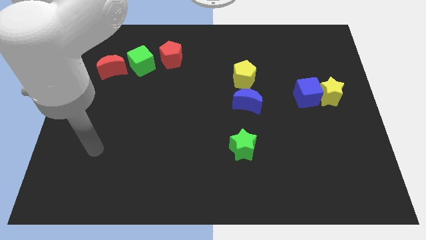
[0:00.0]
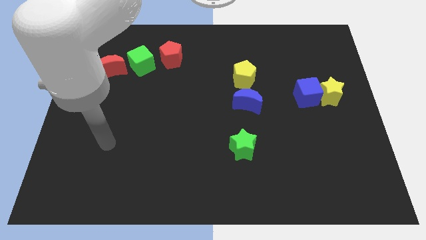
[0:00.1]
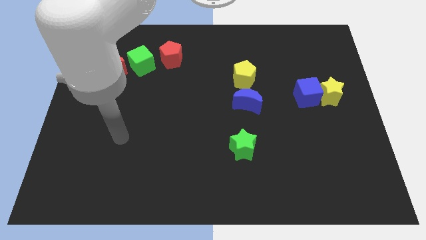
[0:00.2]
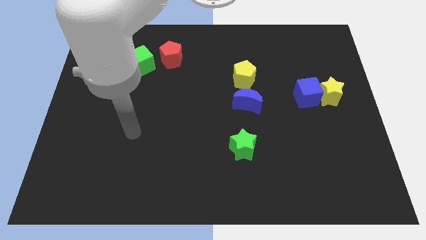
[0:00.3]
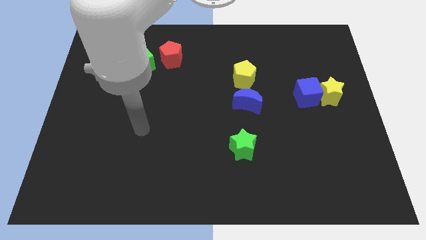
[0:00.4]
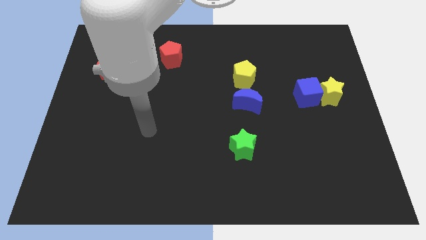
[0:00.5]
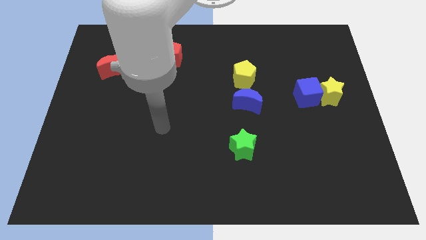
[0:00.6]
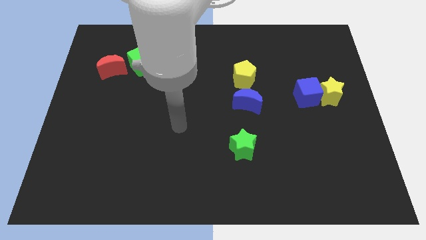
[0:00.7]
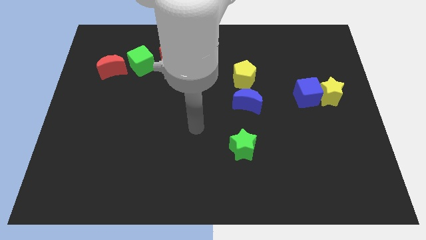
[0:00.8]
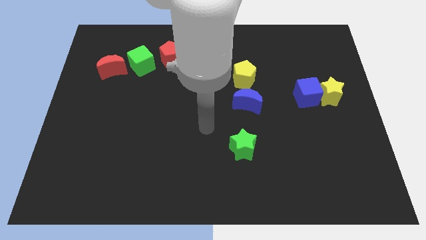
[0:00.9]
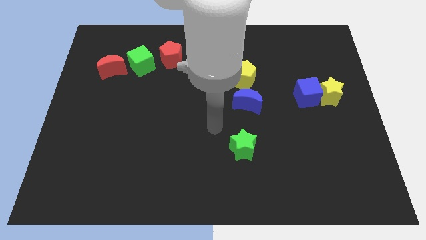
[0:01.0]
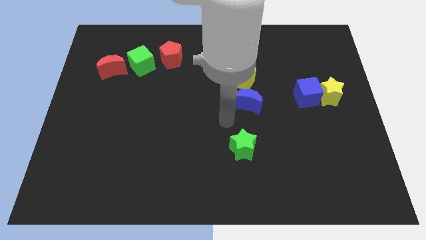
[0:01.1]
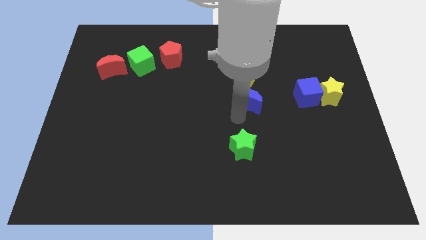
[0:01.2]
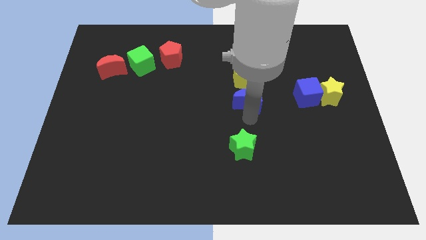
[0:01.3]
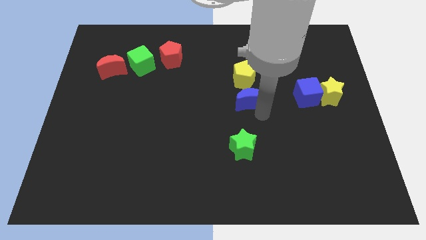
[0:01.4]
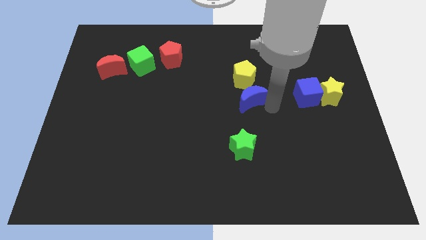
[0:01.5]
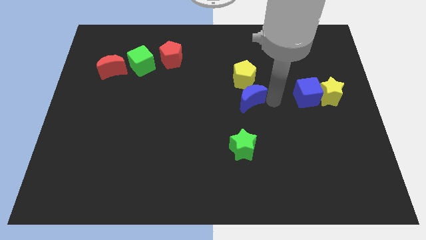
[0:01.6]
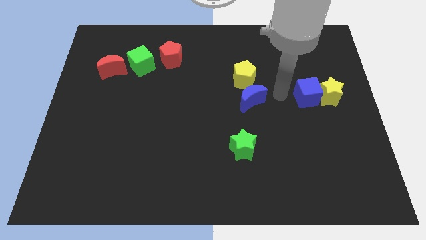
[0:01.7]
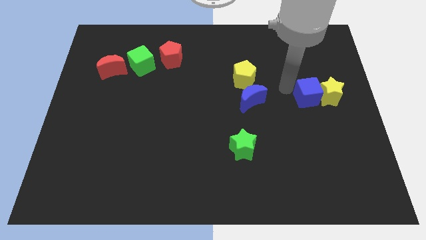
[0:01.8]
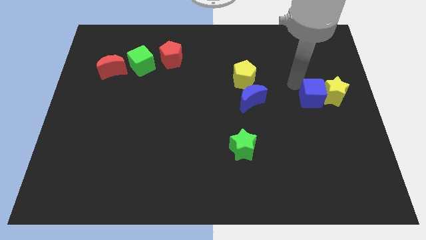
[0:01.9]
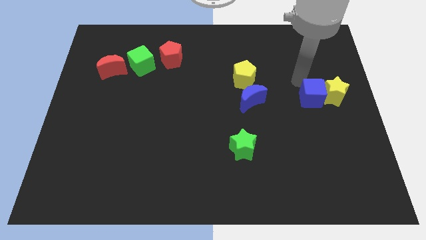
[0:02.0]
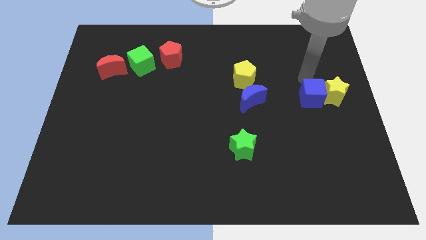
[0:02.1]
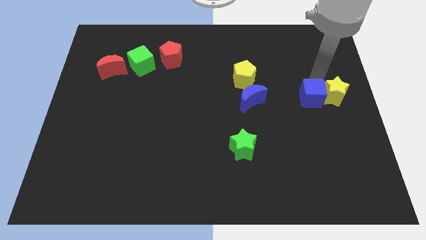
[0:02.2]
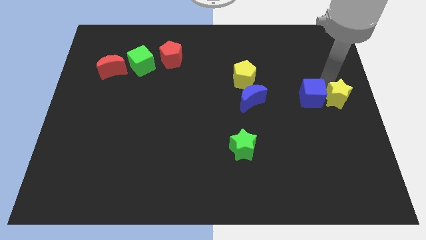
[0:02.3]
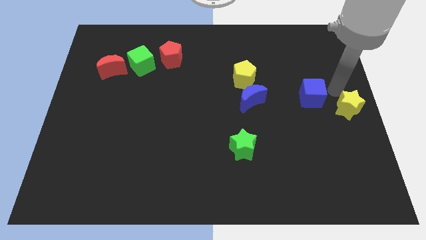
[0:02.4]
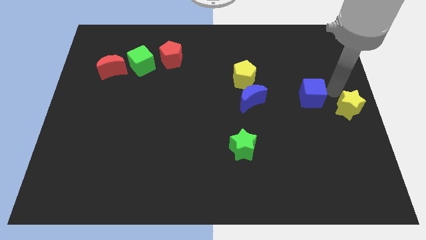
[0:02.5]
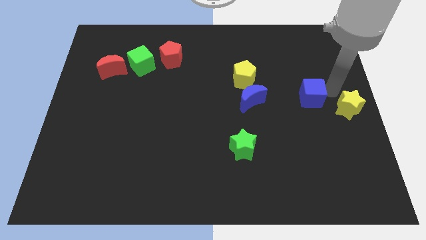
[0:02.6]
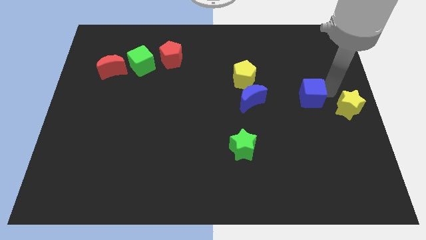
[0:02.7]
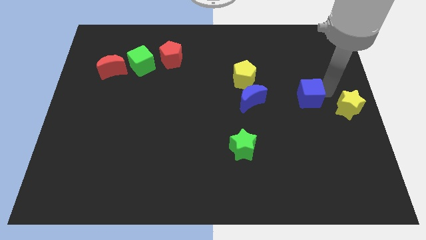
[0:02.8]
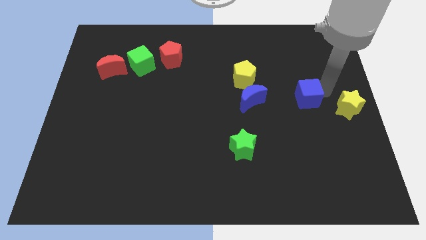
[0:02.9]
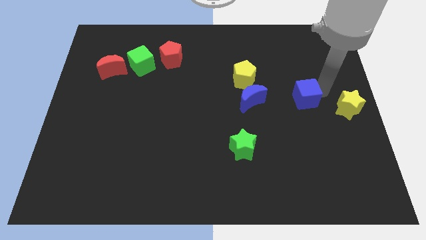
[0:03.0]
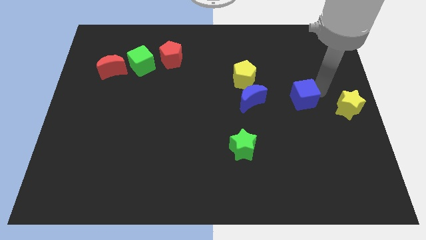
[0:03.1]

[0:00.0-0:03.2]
move the blue cube away from the yellow star

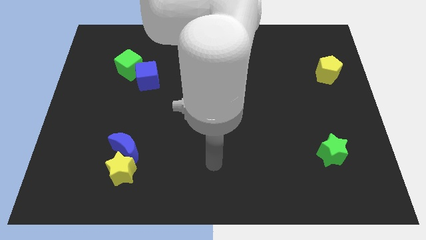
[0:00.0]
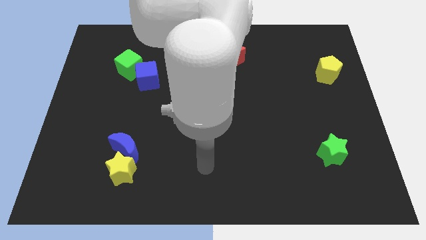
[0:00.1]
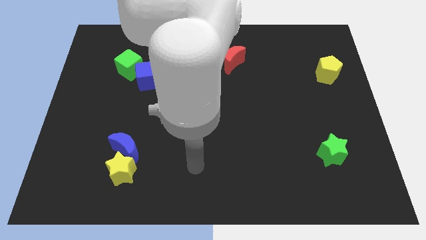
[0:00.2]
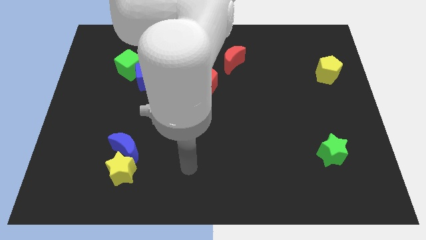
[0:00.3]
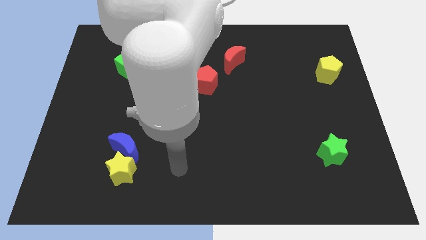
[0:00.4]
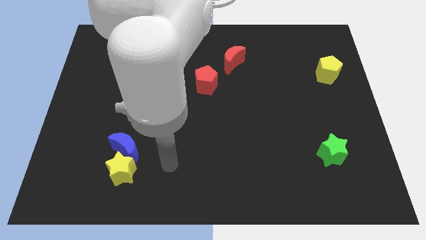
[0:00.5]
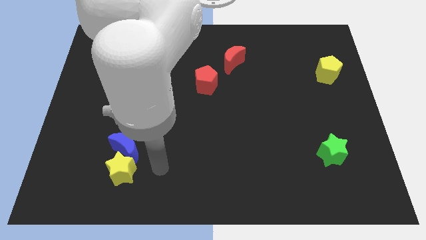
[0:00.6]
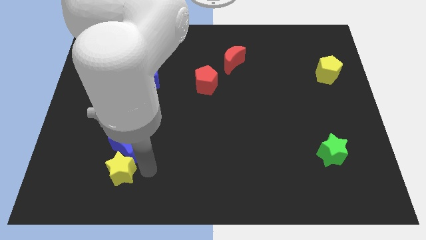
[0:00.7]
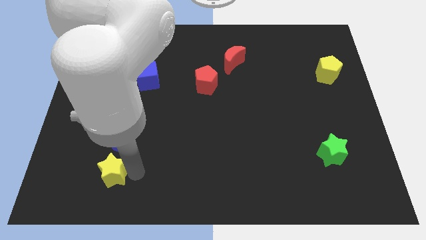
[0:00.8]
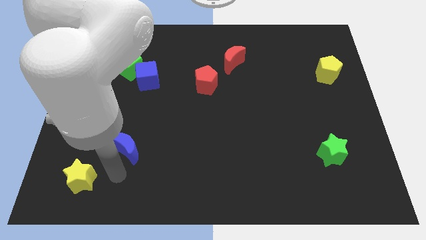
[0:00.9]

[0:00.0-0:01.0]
move the blue moon away from the yellow star

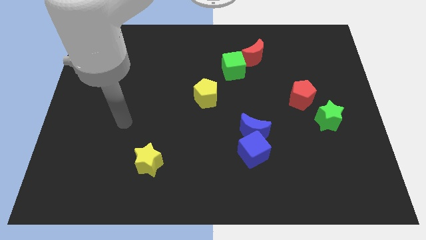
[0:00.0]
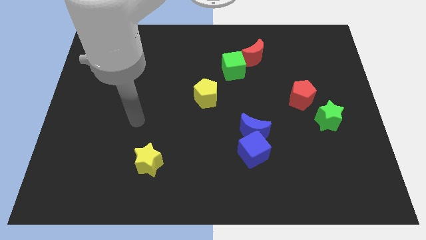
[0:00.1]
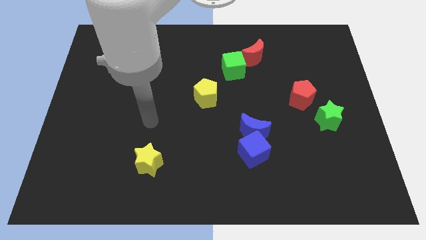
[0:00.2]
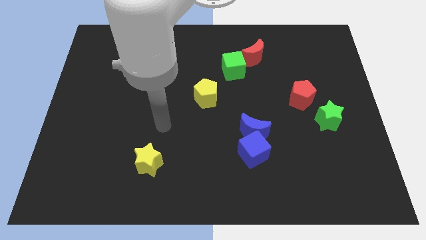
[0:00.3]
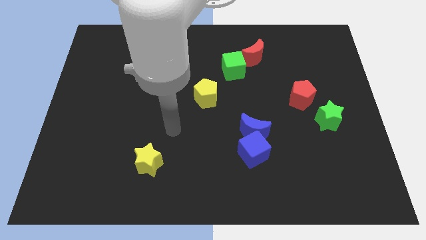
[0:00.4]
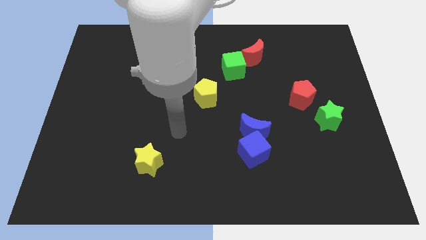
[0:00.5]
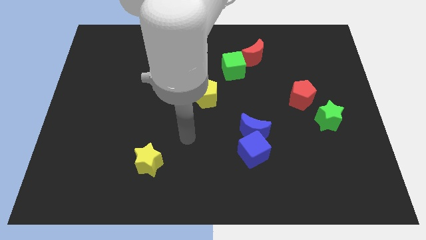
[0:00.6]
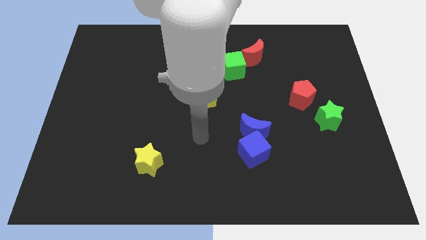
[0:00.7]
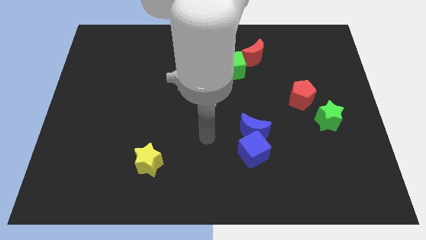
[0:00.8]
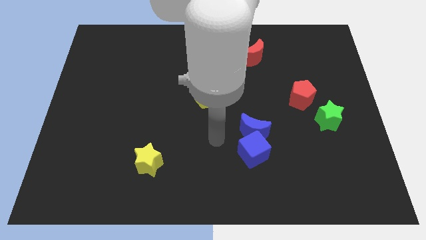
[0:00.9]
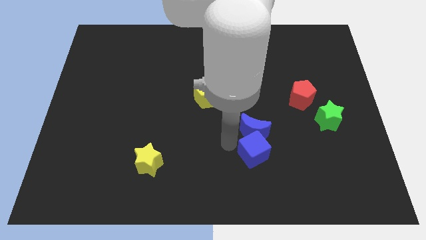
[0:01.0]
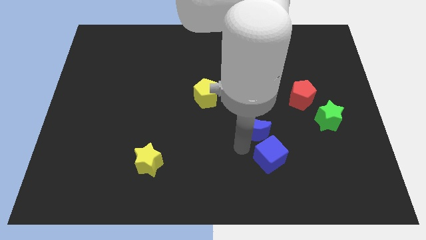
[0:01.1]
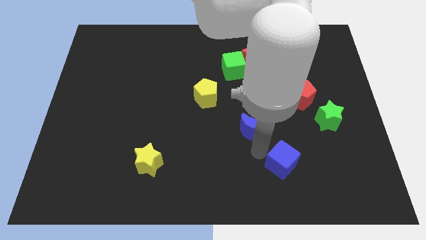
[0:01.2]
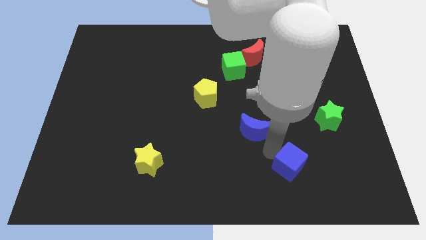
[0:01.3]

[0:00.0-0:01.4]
pull the blue moon apart from the blue cube

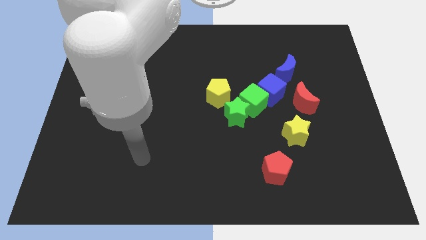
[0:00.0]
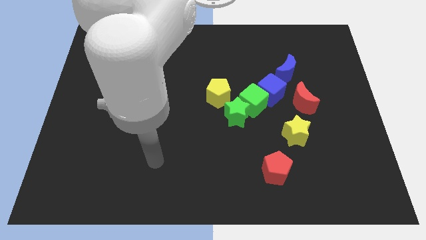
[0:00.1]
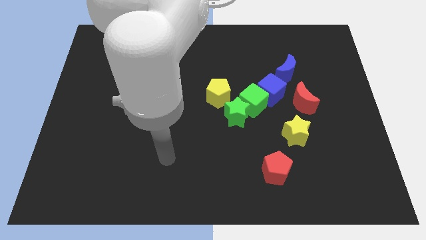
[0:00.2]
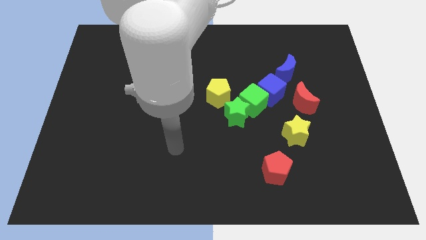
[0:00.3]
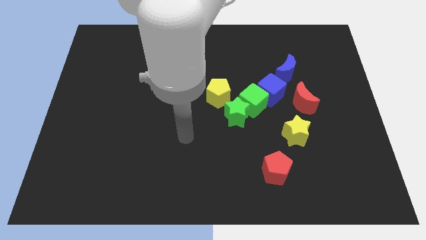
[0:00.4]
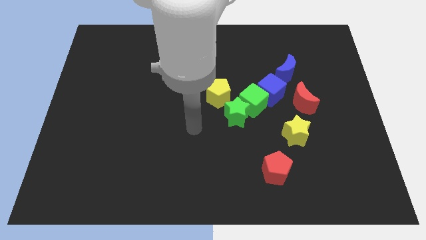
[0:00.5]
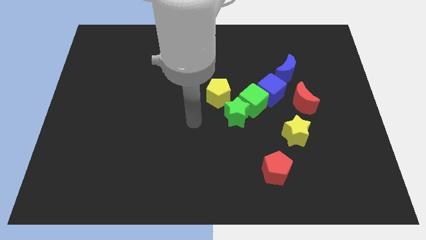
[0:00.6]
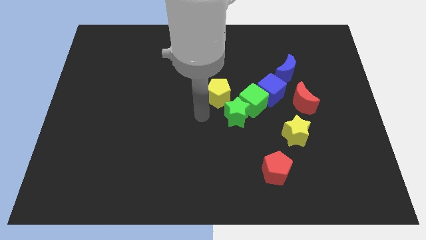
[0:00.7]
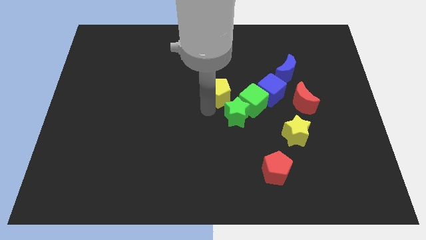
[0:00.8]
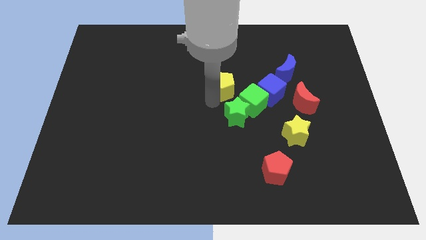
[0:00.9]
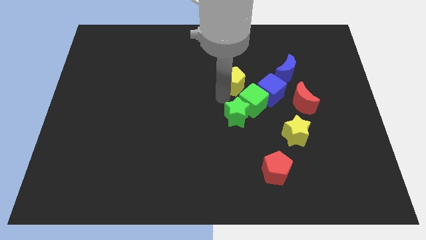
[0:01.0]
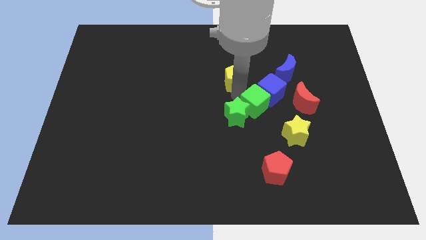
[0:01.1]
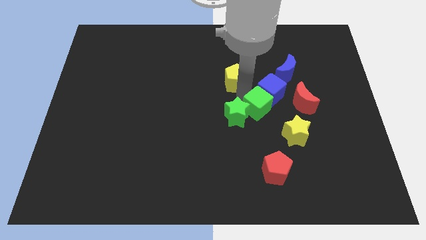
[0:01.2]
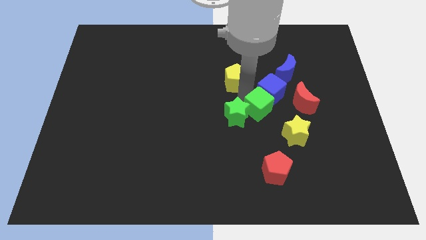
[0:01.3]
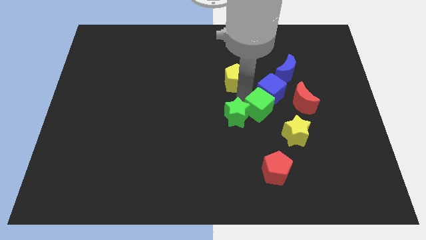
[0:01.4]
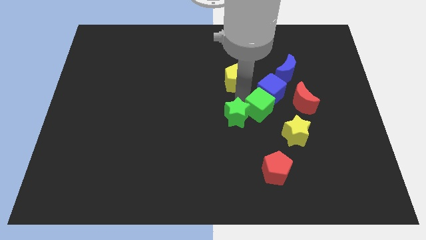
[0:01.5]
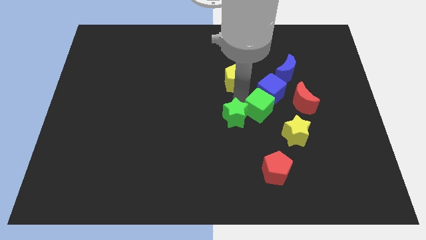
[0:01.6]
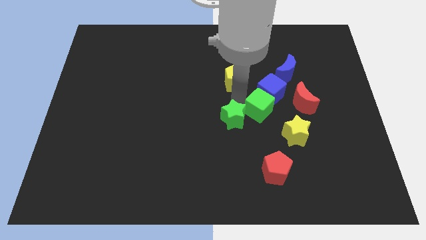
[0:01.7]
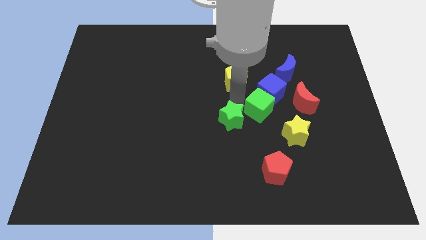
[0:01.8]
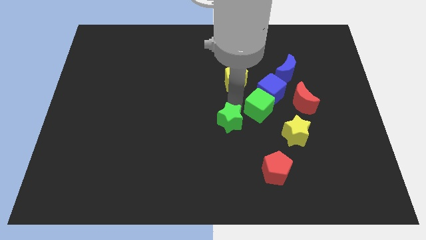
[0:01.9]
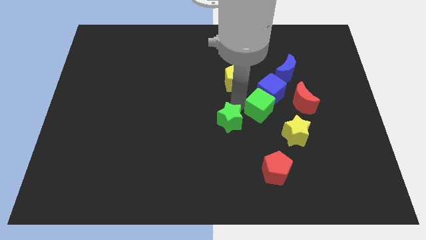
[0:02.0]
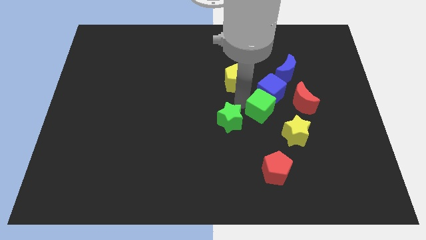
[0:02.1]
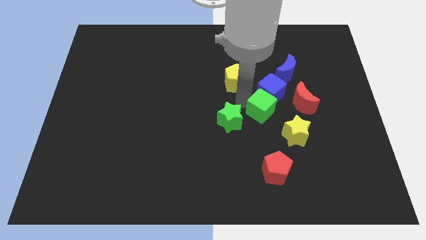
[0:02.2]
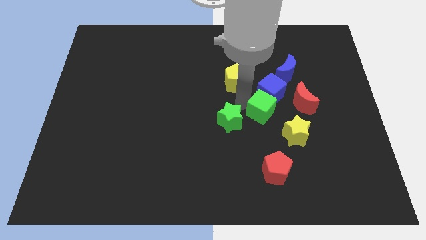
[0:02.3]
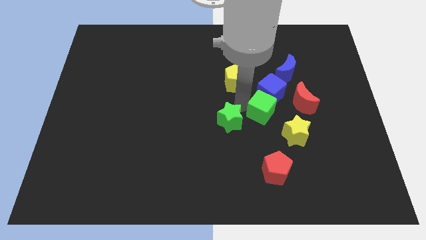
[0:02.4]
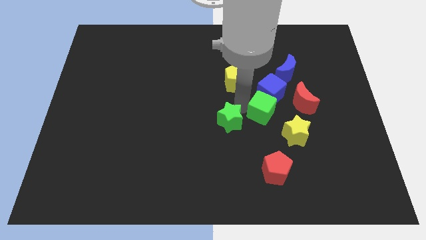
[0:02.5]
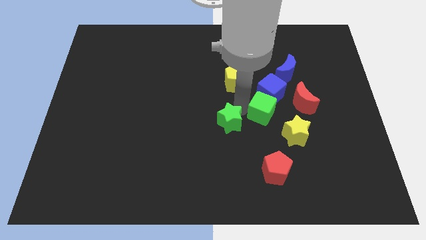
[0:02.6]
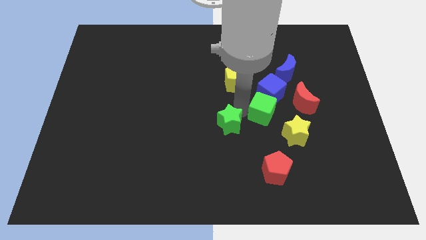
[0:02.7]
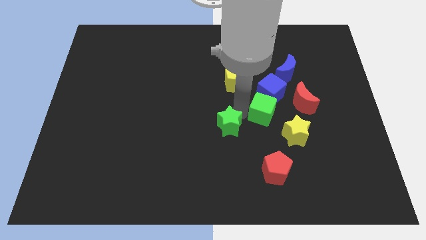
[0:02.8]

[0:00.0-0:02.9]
move the green star away from the green cube and yellow pentagon

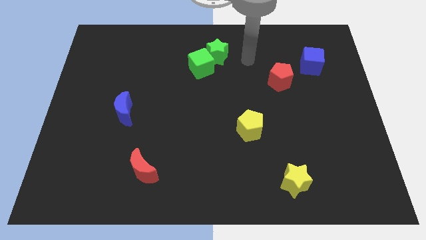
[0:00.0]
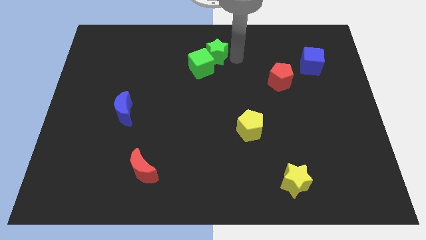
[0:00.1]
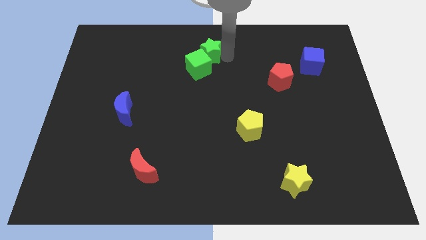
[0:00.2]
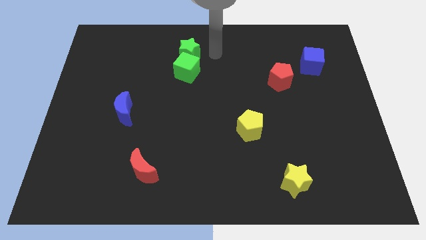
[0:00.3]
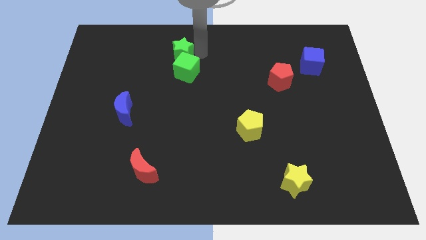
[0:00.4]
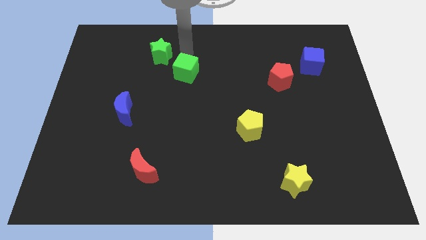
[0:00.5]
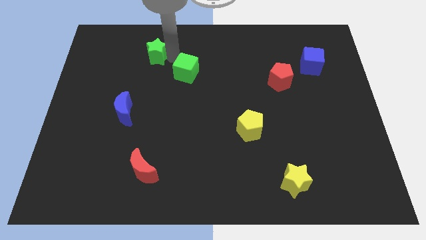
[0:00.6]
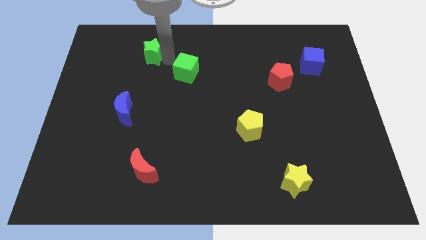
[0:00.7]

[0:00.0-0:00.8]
separate the green cube from the green star

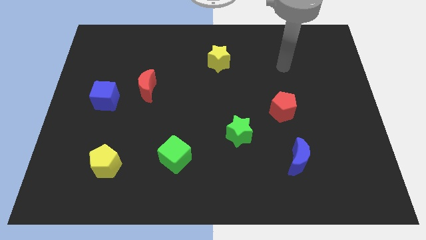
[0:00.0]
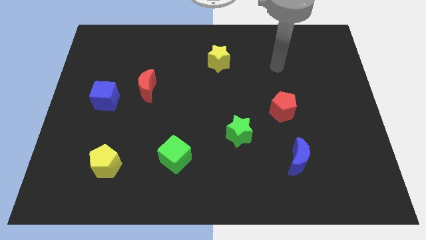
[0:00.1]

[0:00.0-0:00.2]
separate the red moon from the blue cube
